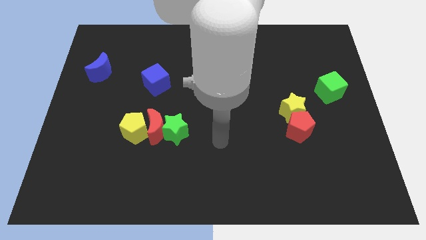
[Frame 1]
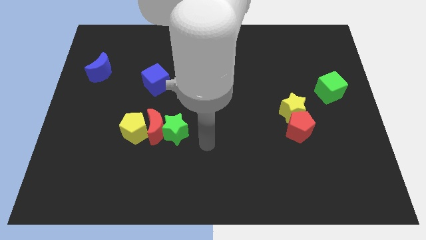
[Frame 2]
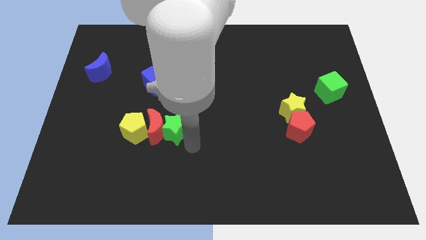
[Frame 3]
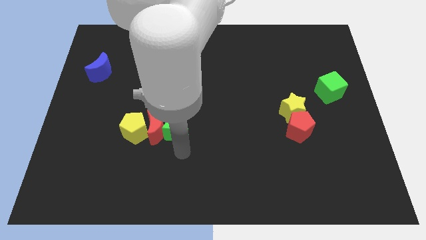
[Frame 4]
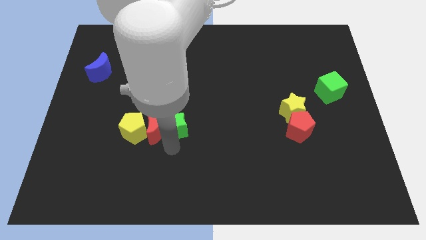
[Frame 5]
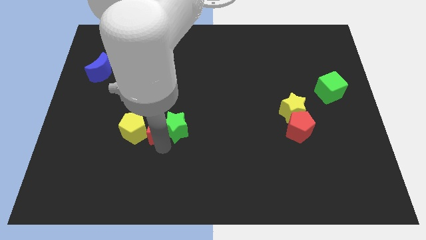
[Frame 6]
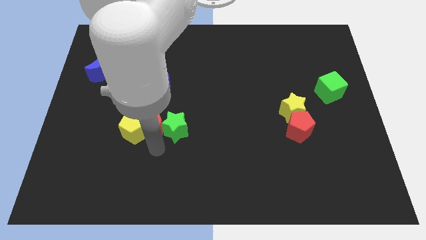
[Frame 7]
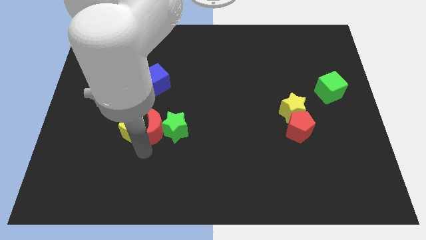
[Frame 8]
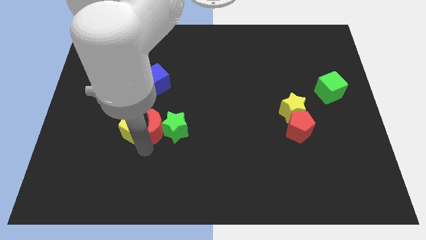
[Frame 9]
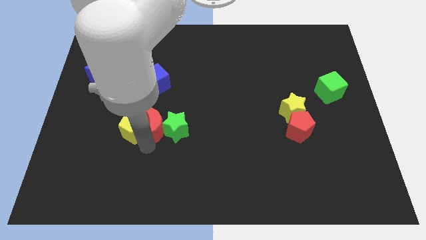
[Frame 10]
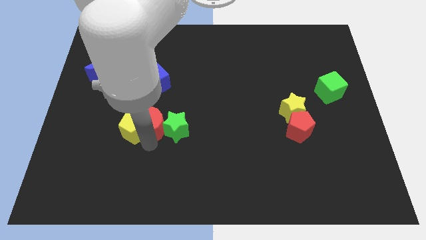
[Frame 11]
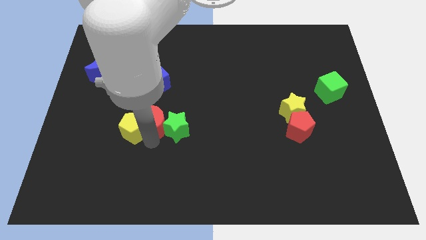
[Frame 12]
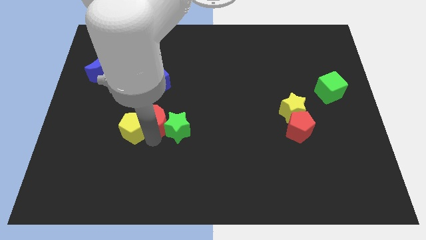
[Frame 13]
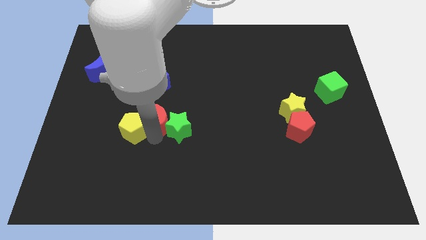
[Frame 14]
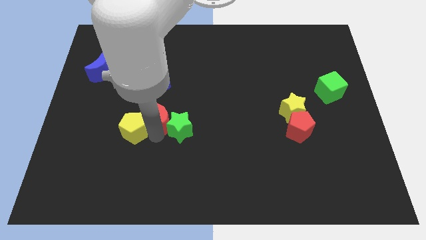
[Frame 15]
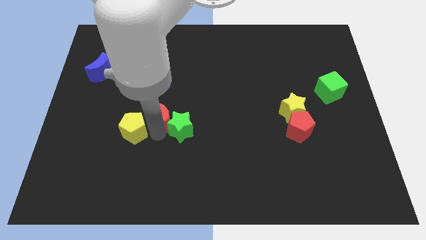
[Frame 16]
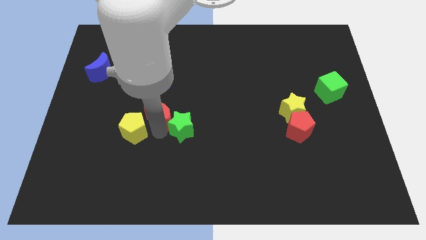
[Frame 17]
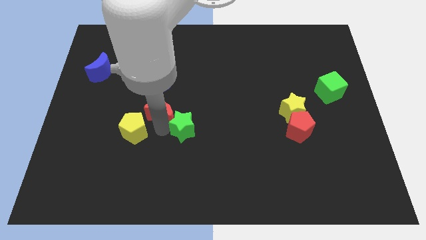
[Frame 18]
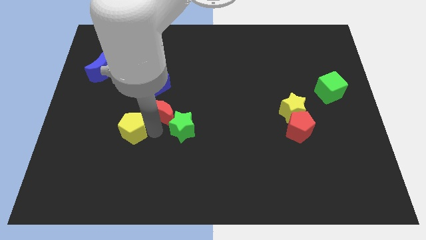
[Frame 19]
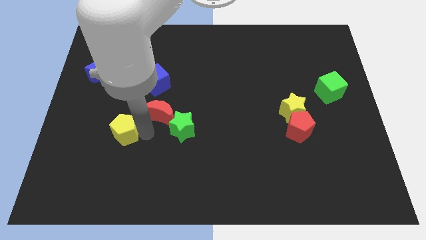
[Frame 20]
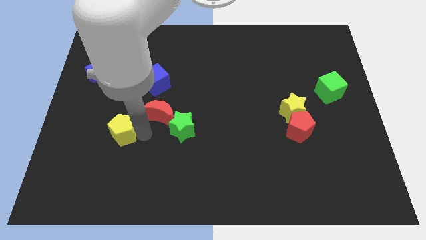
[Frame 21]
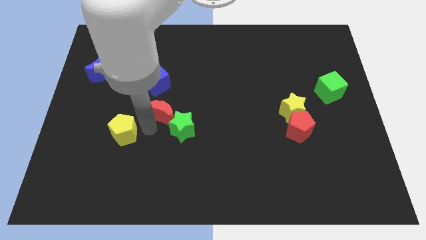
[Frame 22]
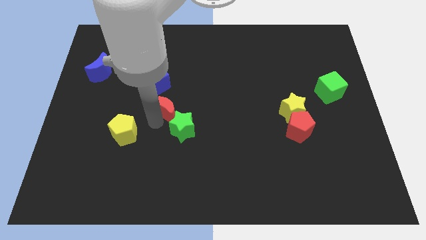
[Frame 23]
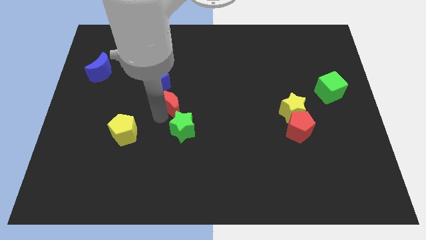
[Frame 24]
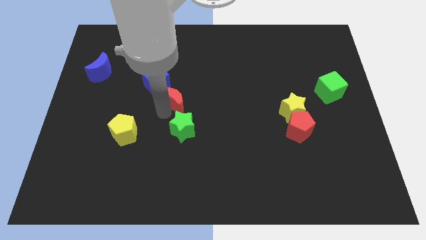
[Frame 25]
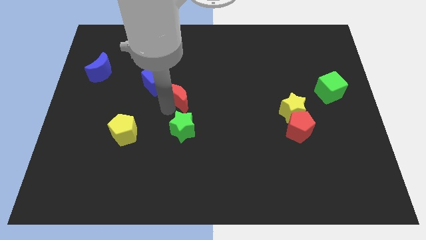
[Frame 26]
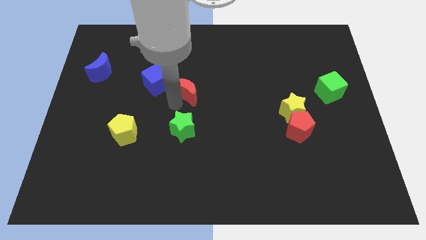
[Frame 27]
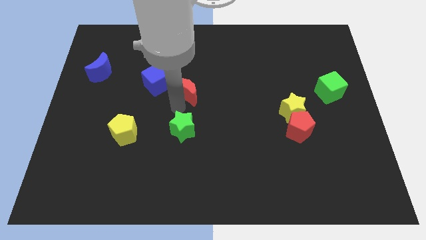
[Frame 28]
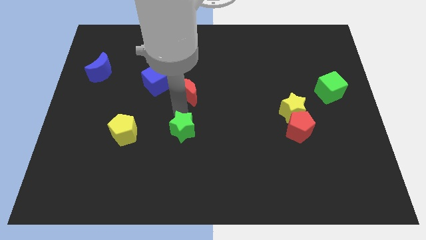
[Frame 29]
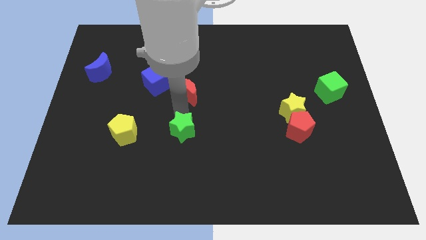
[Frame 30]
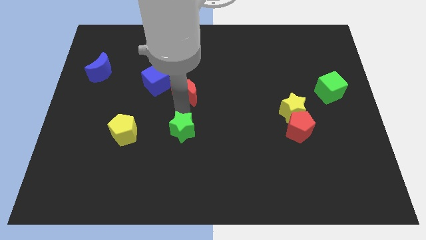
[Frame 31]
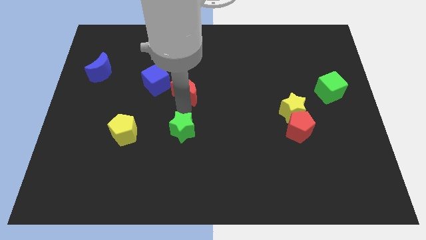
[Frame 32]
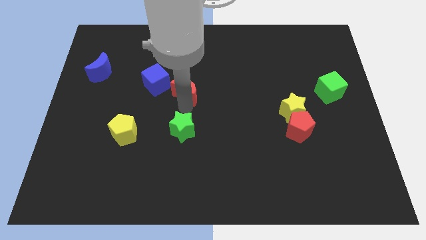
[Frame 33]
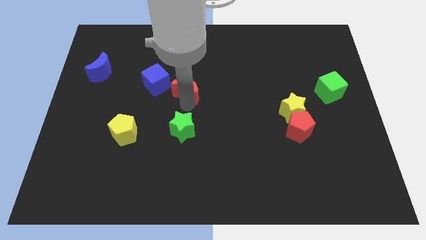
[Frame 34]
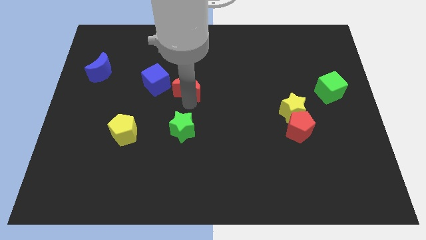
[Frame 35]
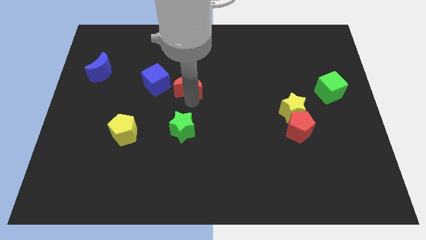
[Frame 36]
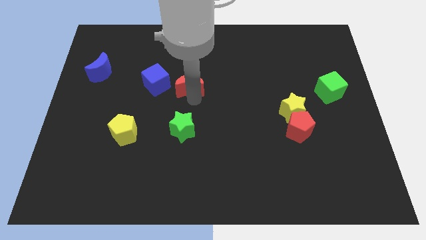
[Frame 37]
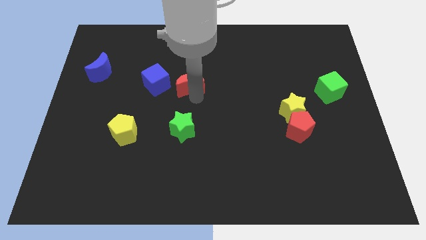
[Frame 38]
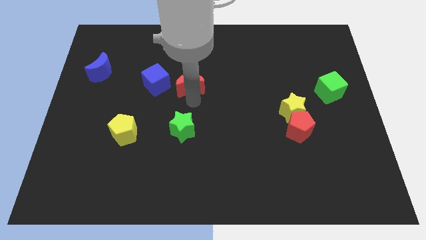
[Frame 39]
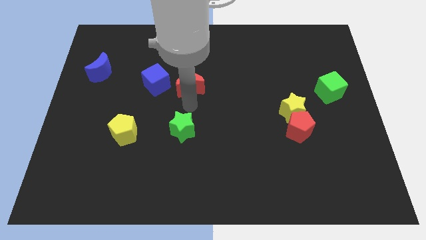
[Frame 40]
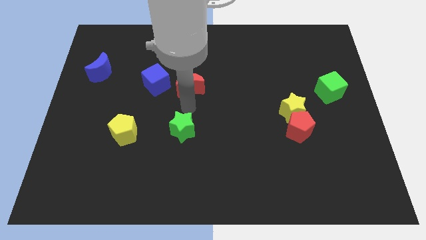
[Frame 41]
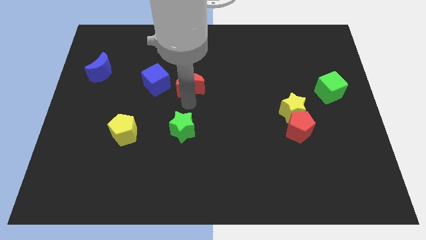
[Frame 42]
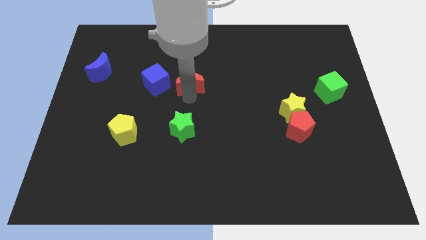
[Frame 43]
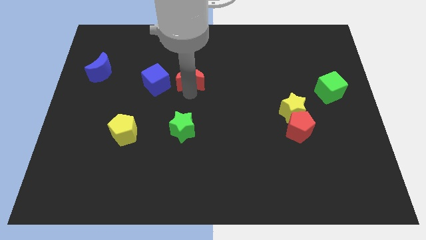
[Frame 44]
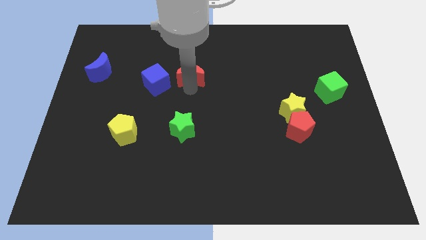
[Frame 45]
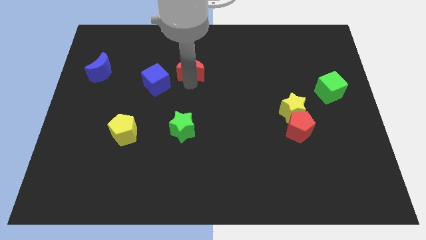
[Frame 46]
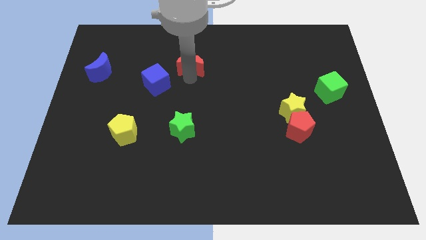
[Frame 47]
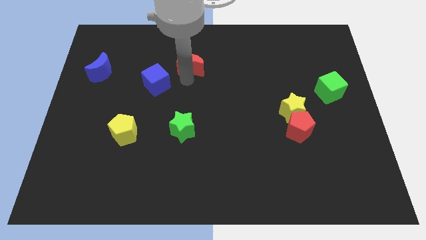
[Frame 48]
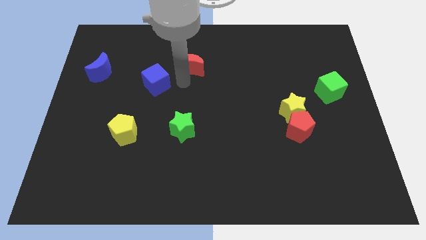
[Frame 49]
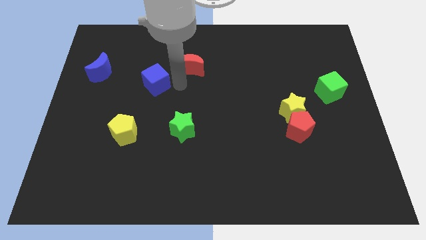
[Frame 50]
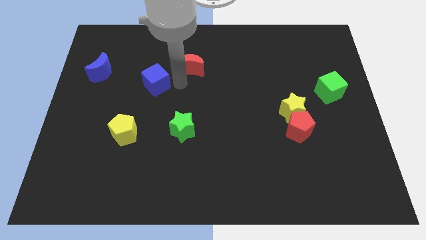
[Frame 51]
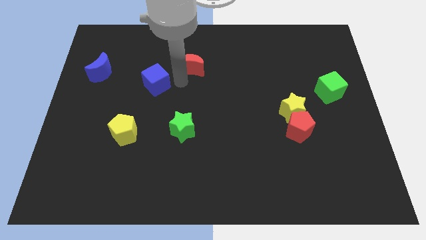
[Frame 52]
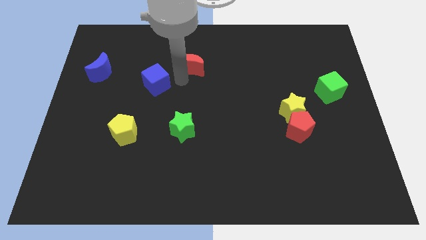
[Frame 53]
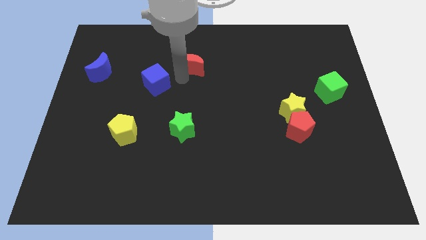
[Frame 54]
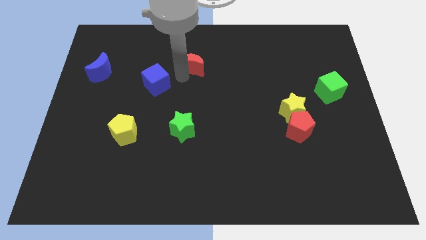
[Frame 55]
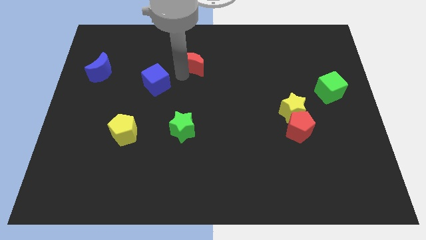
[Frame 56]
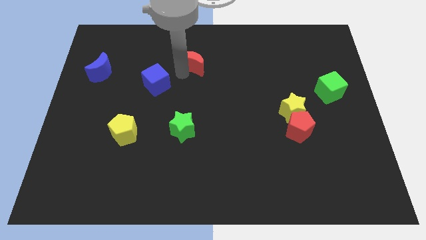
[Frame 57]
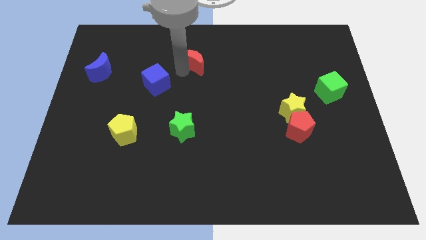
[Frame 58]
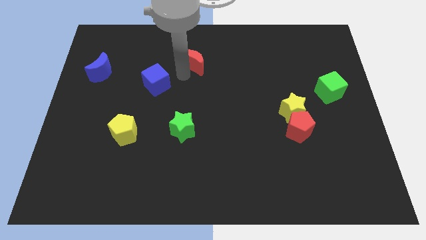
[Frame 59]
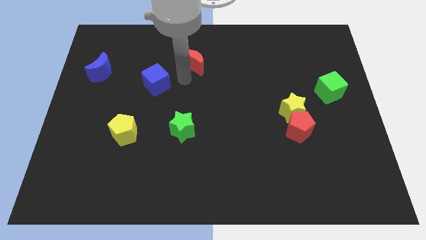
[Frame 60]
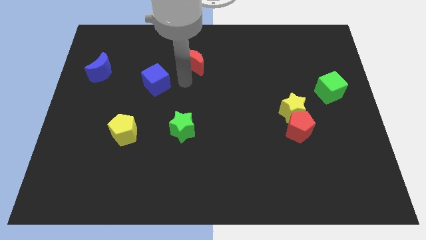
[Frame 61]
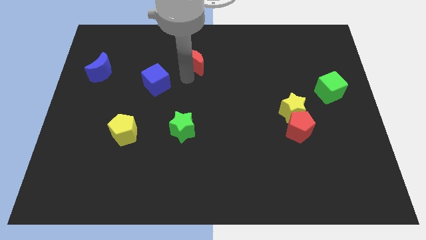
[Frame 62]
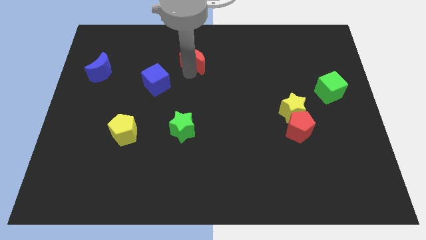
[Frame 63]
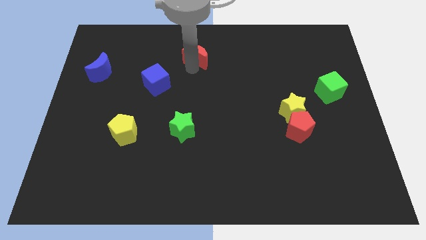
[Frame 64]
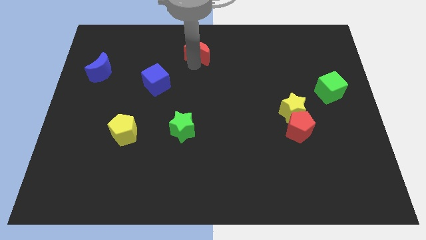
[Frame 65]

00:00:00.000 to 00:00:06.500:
slide the red moon to the towards your base

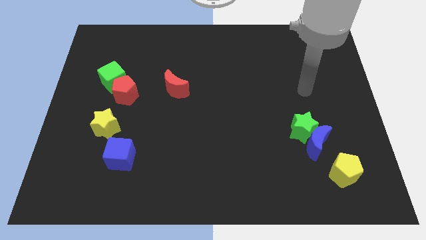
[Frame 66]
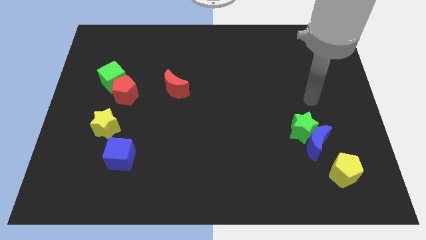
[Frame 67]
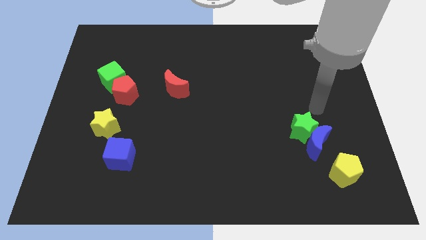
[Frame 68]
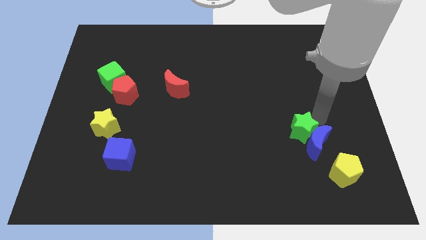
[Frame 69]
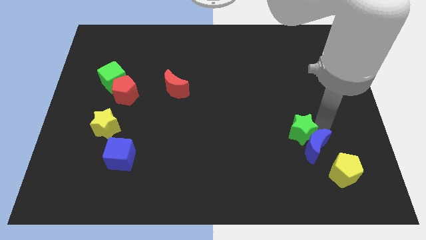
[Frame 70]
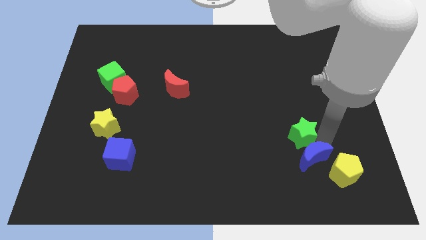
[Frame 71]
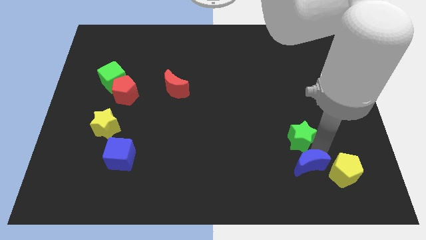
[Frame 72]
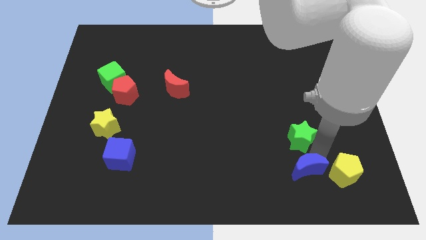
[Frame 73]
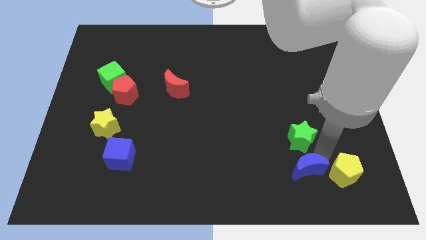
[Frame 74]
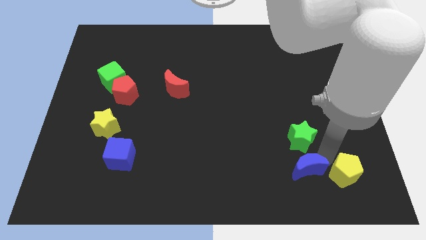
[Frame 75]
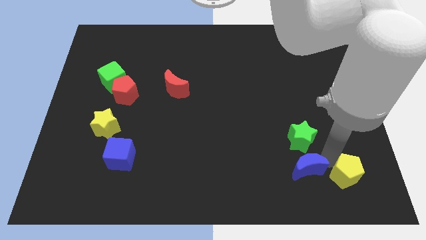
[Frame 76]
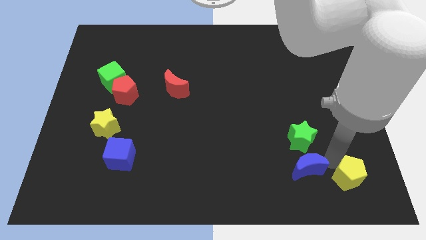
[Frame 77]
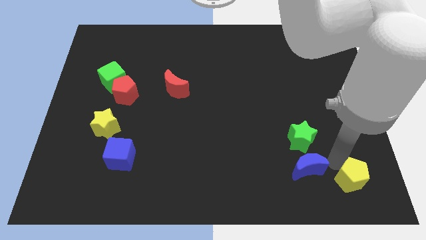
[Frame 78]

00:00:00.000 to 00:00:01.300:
move the yellow pentagon to the bottom right
